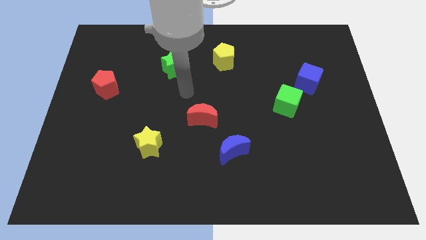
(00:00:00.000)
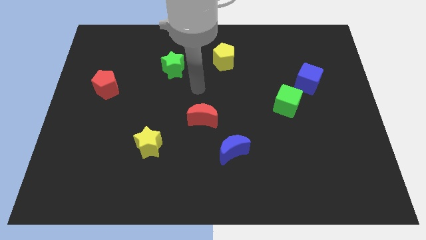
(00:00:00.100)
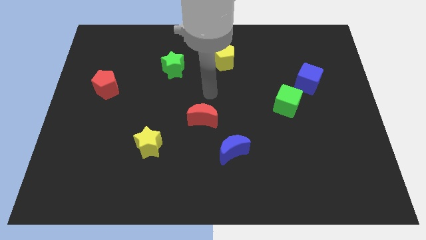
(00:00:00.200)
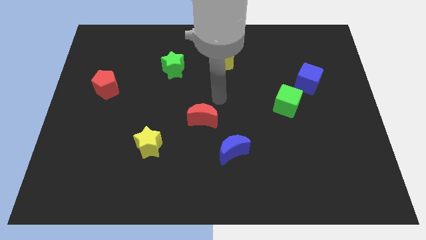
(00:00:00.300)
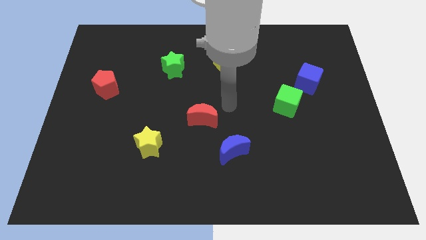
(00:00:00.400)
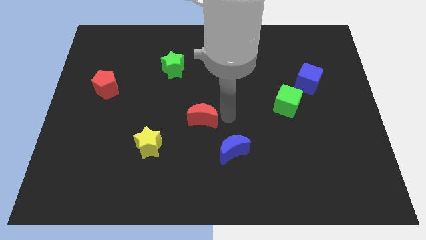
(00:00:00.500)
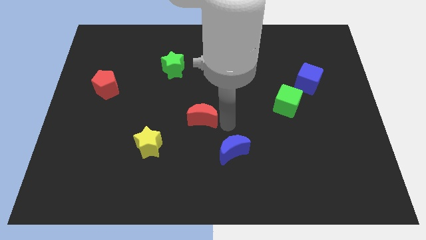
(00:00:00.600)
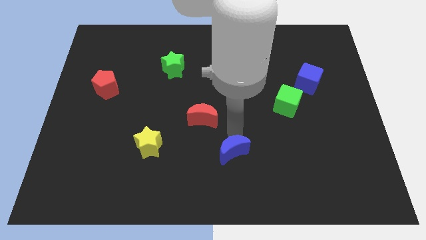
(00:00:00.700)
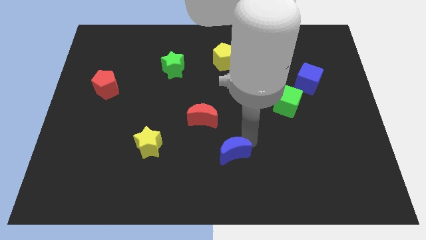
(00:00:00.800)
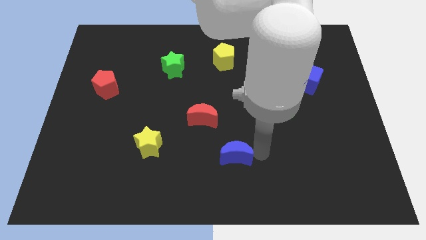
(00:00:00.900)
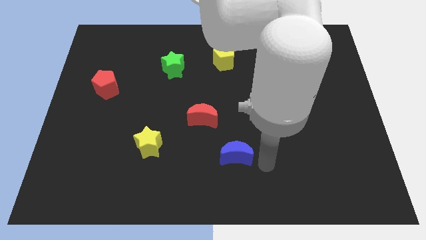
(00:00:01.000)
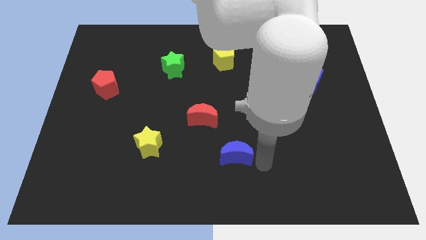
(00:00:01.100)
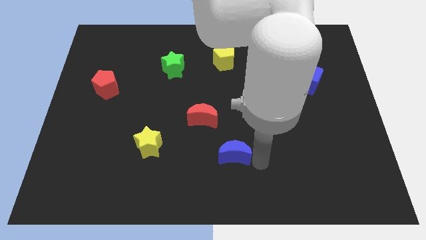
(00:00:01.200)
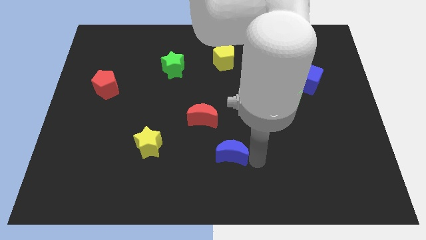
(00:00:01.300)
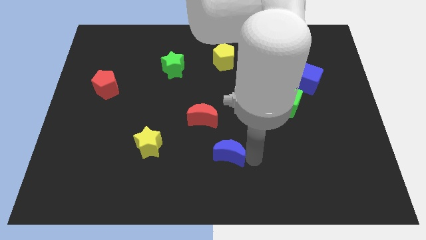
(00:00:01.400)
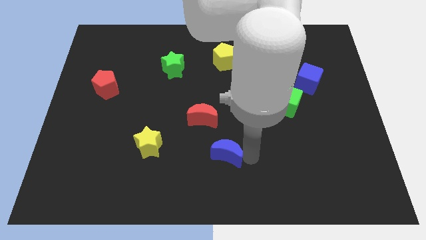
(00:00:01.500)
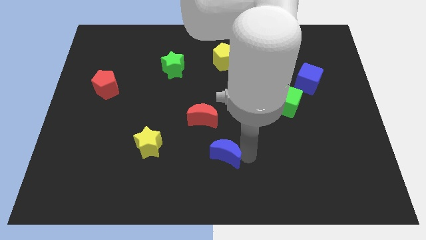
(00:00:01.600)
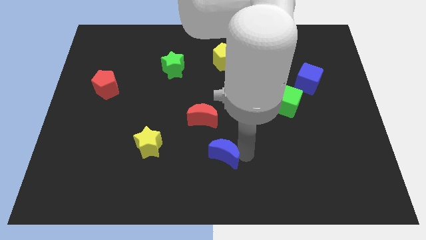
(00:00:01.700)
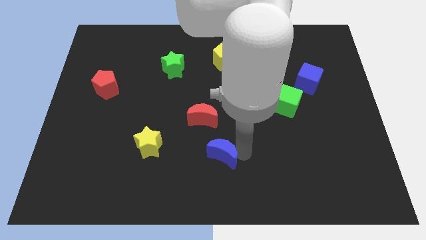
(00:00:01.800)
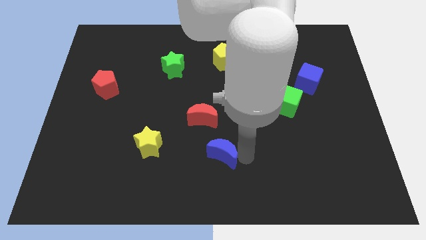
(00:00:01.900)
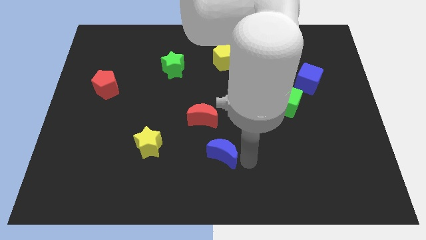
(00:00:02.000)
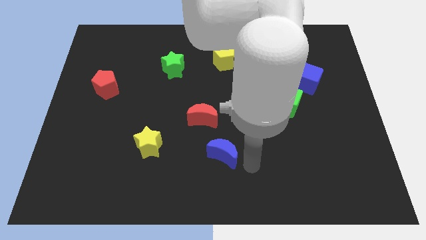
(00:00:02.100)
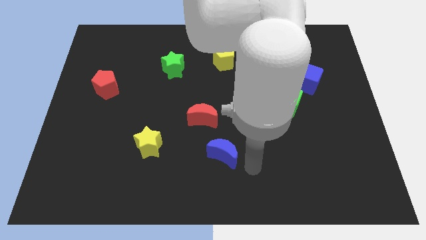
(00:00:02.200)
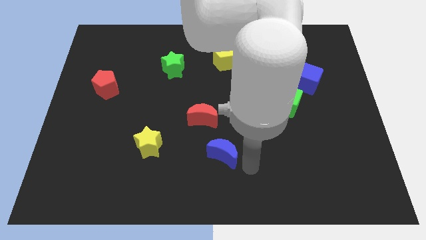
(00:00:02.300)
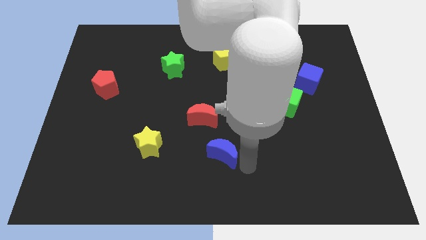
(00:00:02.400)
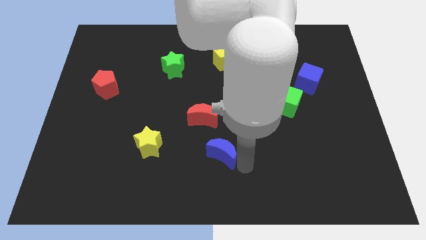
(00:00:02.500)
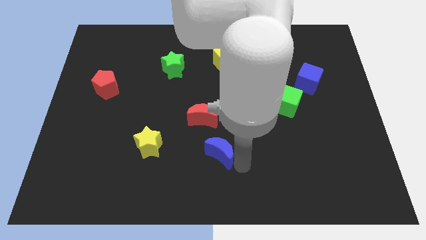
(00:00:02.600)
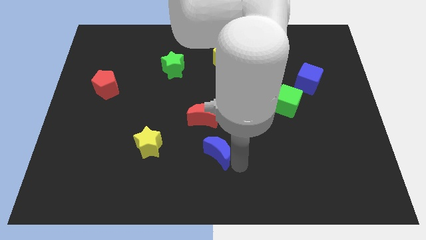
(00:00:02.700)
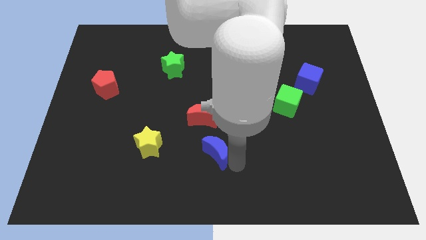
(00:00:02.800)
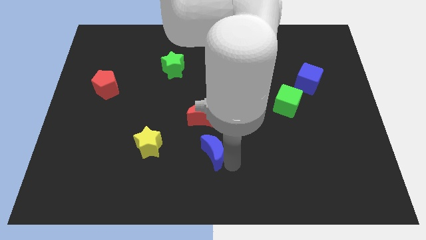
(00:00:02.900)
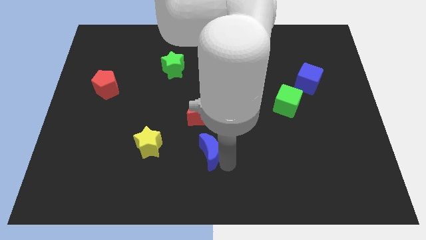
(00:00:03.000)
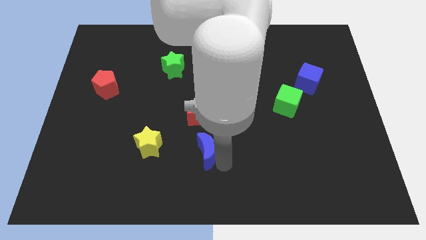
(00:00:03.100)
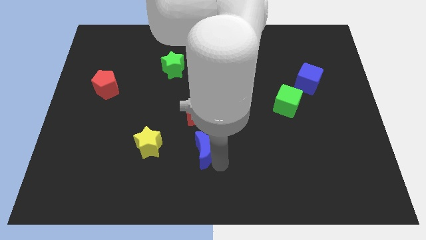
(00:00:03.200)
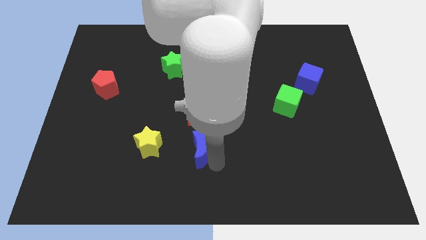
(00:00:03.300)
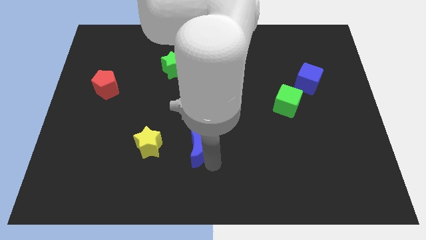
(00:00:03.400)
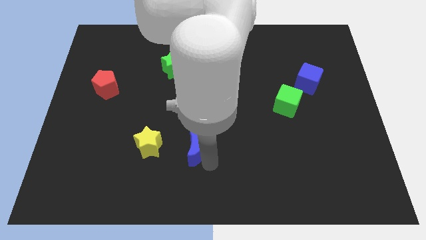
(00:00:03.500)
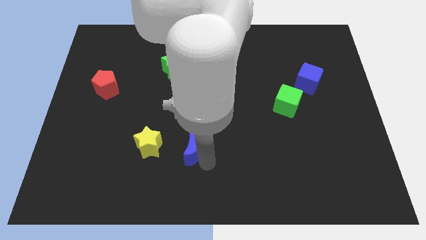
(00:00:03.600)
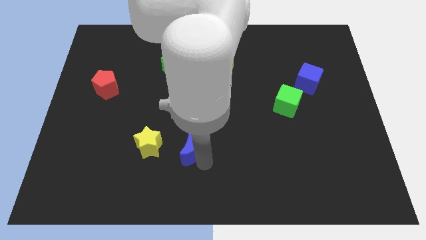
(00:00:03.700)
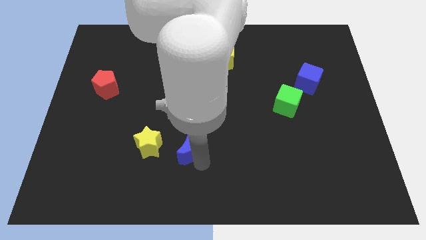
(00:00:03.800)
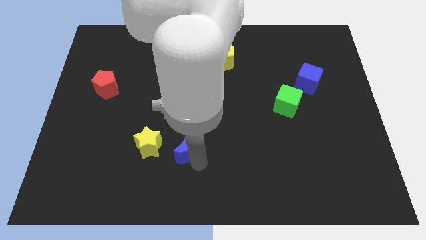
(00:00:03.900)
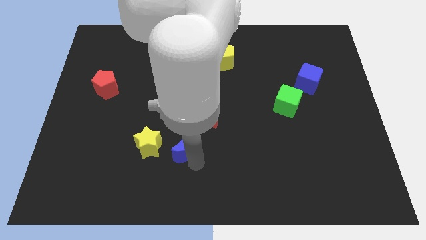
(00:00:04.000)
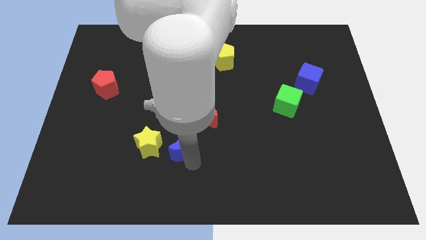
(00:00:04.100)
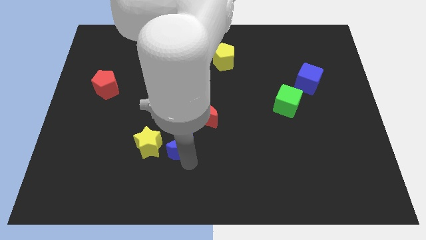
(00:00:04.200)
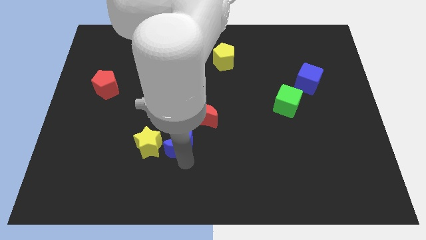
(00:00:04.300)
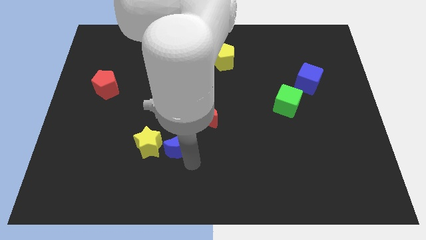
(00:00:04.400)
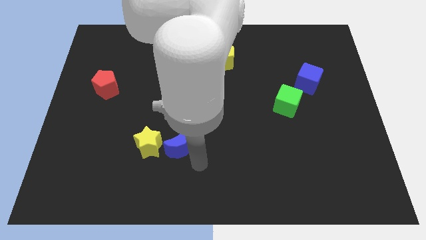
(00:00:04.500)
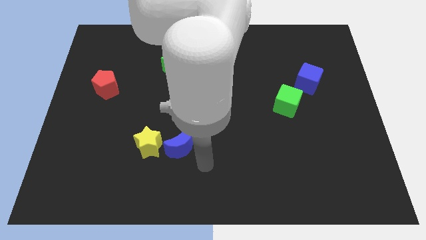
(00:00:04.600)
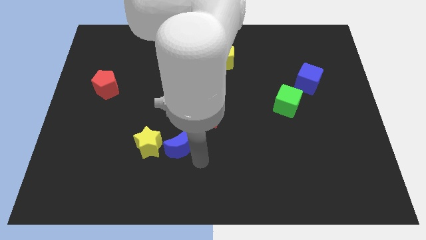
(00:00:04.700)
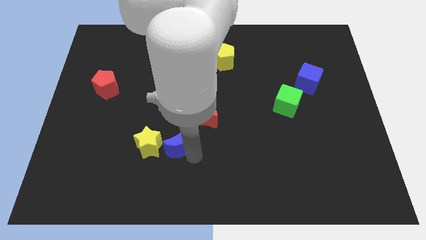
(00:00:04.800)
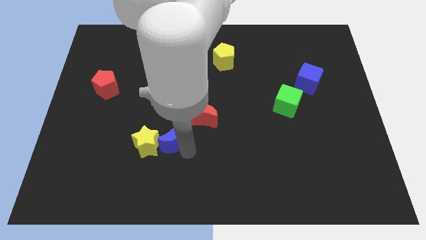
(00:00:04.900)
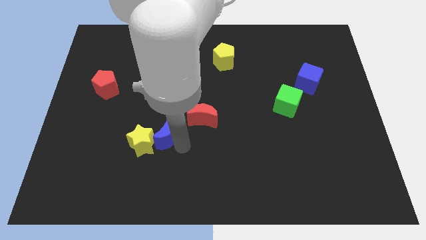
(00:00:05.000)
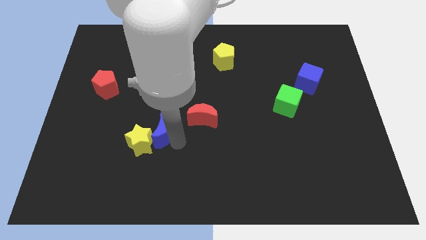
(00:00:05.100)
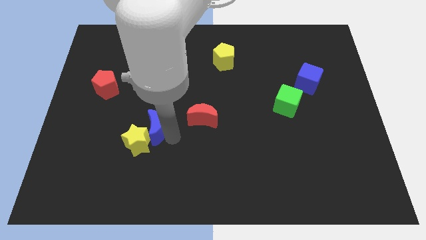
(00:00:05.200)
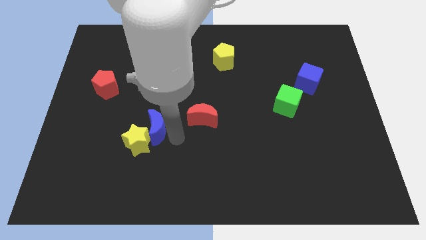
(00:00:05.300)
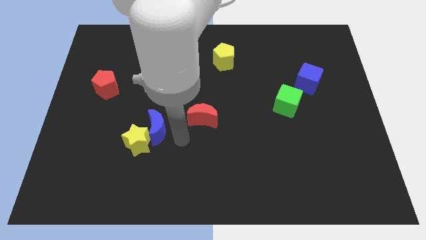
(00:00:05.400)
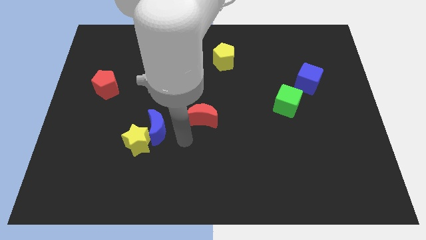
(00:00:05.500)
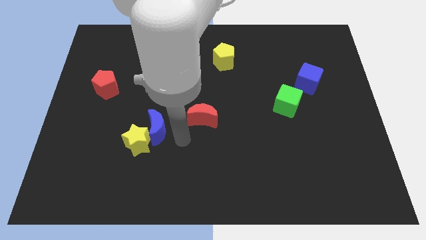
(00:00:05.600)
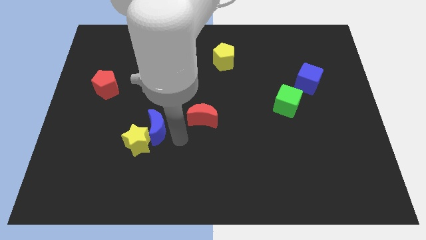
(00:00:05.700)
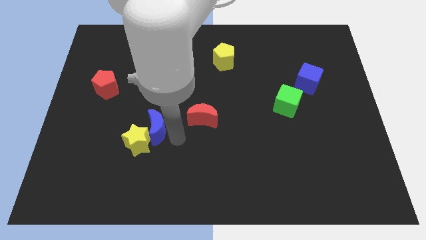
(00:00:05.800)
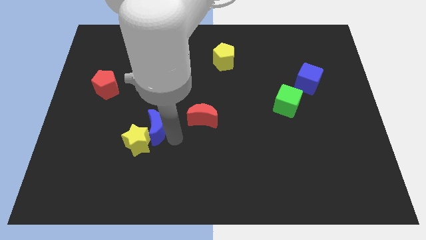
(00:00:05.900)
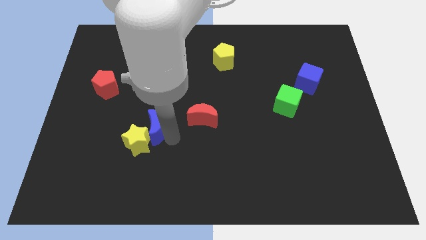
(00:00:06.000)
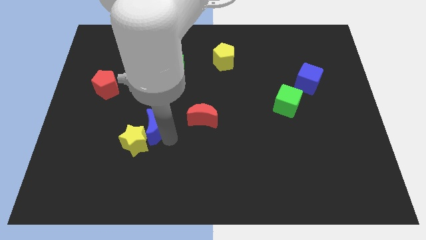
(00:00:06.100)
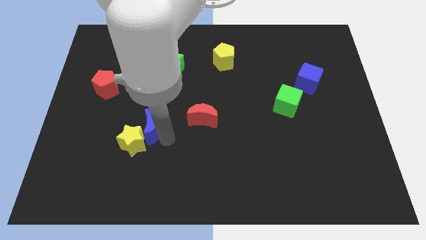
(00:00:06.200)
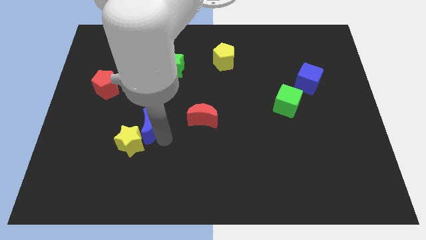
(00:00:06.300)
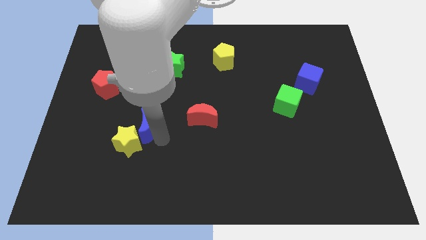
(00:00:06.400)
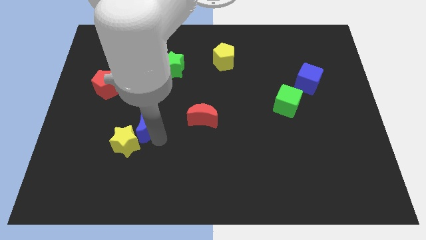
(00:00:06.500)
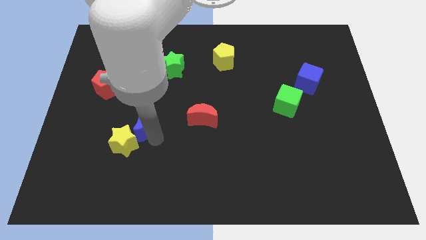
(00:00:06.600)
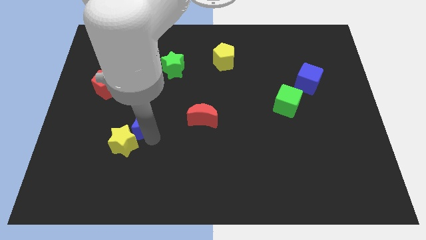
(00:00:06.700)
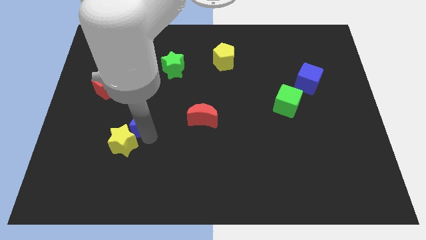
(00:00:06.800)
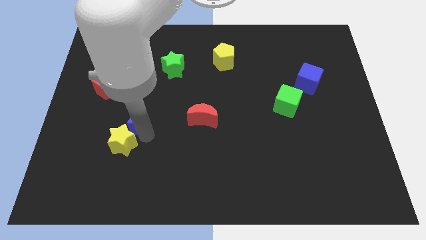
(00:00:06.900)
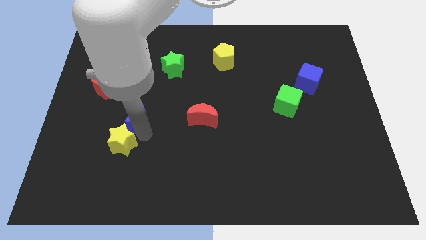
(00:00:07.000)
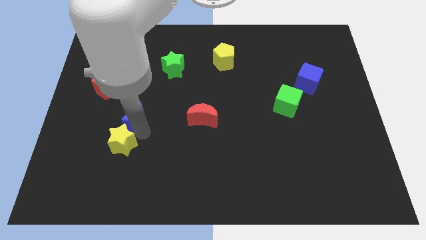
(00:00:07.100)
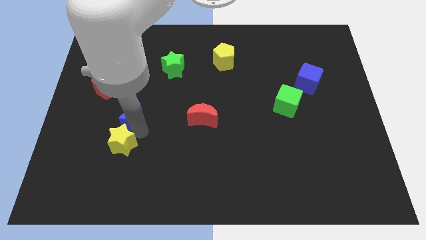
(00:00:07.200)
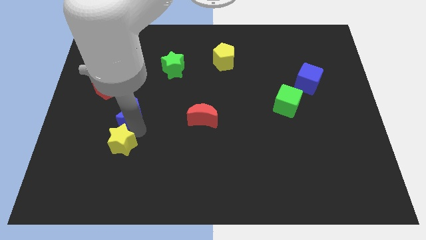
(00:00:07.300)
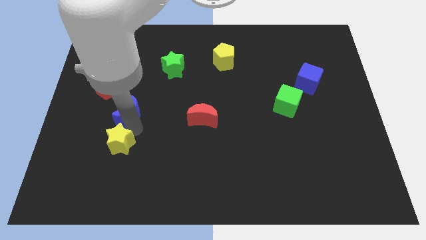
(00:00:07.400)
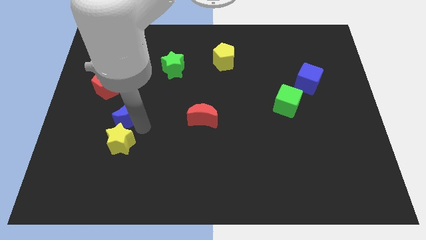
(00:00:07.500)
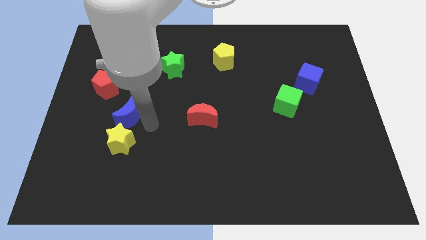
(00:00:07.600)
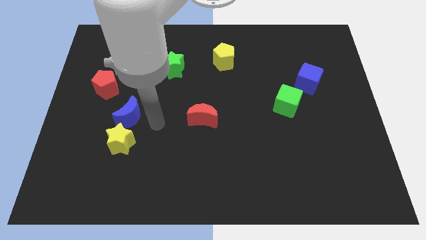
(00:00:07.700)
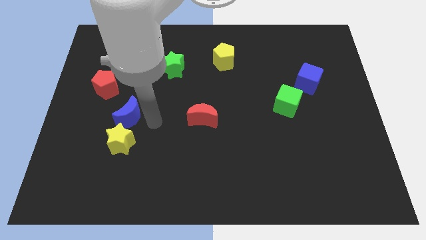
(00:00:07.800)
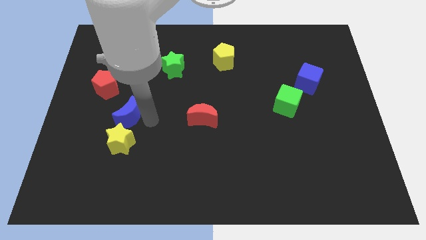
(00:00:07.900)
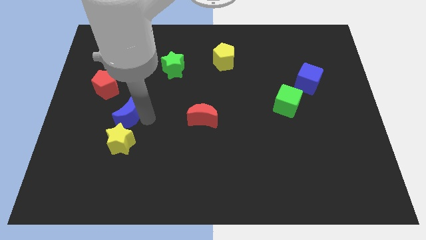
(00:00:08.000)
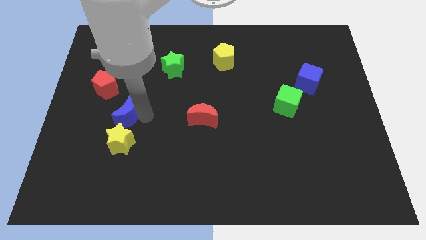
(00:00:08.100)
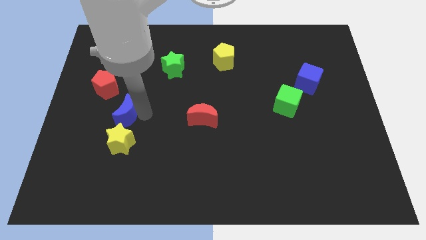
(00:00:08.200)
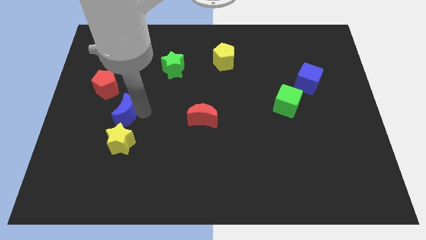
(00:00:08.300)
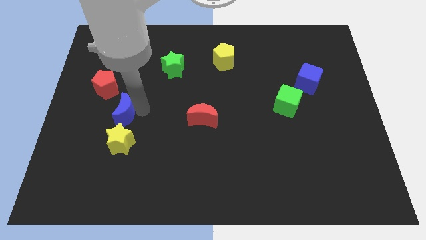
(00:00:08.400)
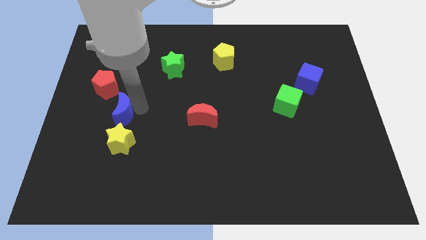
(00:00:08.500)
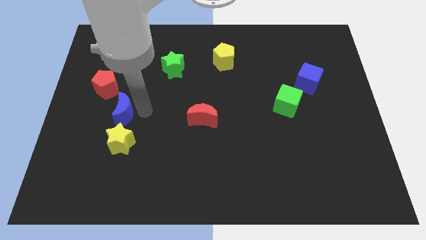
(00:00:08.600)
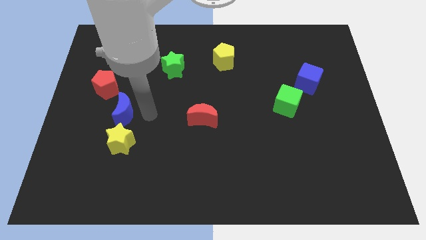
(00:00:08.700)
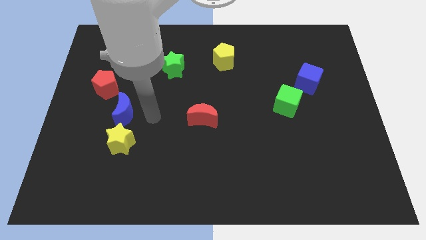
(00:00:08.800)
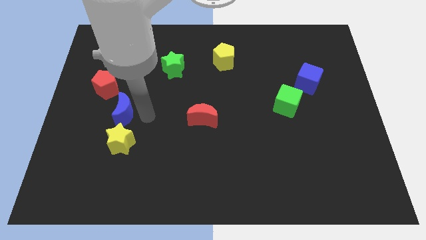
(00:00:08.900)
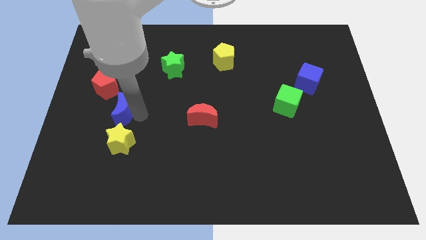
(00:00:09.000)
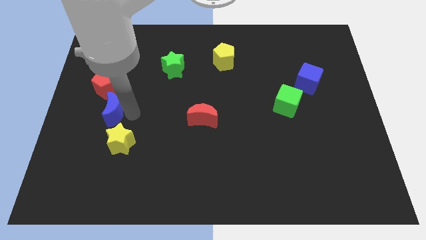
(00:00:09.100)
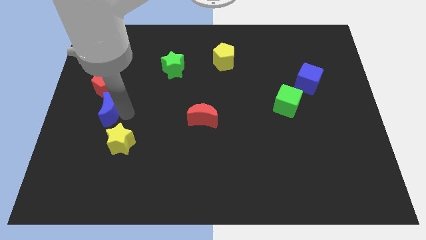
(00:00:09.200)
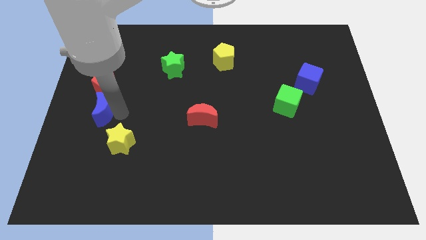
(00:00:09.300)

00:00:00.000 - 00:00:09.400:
push the blue moon to the left side of the board
